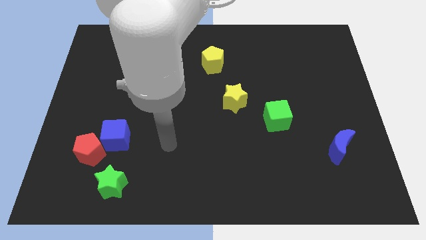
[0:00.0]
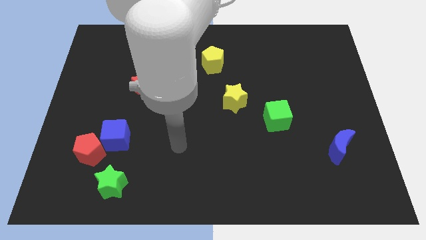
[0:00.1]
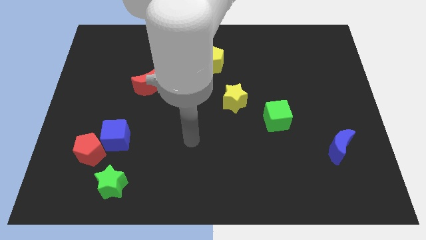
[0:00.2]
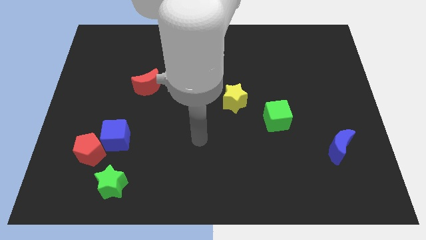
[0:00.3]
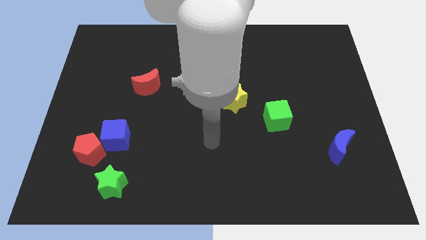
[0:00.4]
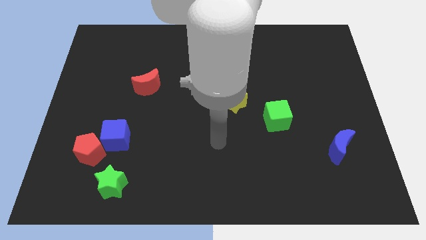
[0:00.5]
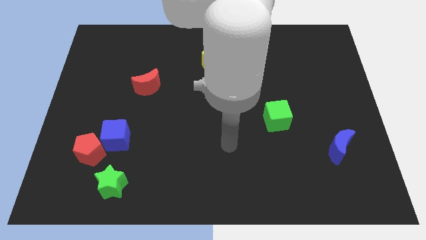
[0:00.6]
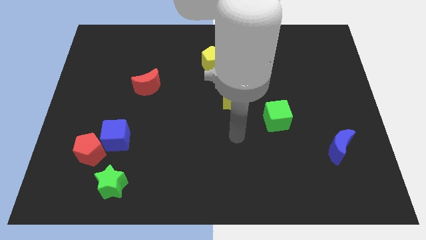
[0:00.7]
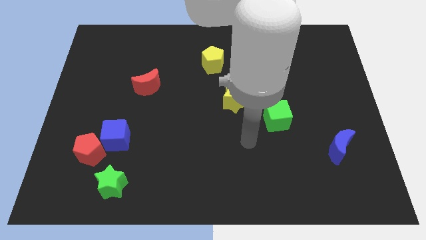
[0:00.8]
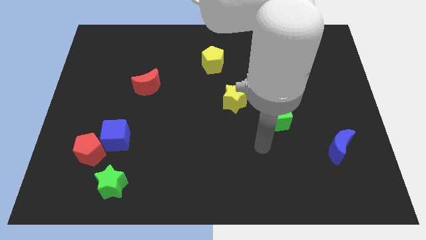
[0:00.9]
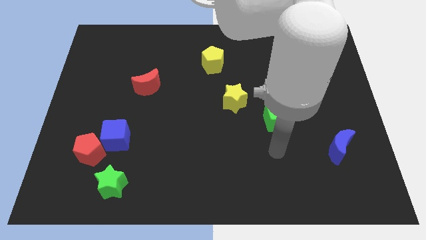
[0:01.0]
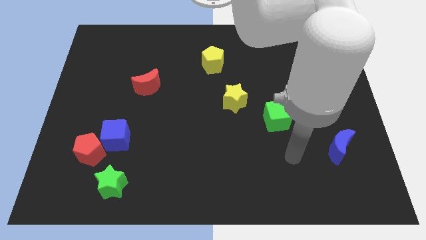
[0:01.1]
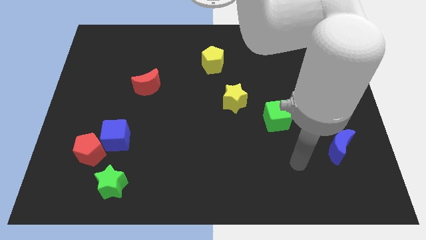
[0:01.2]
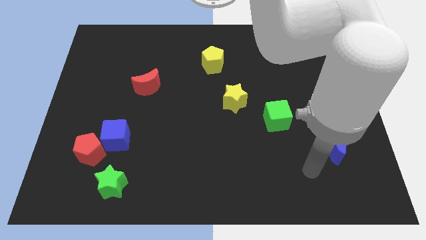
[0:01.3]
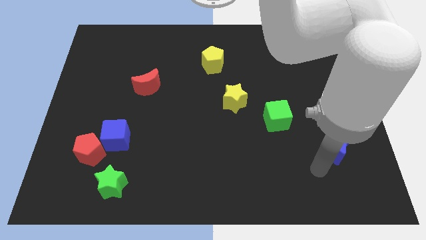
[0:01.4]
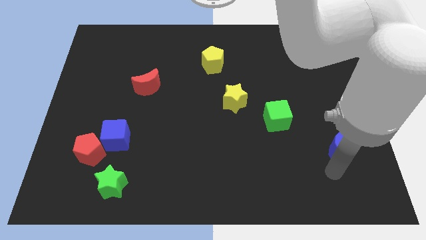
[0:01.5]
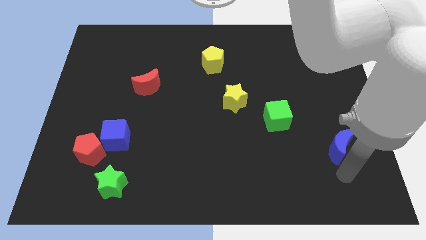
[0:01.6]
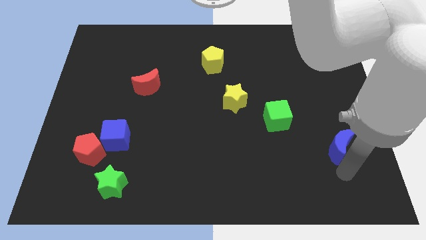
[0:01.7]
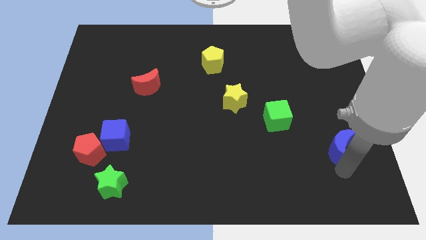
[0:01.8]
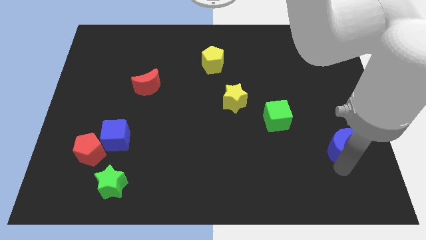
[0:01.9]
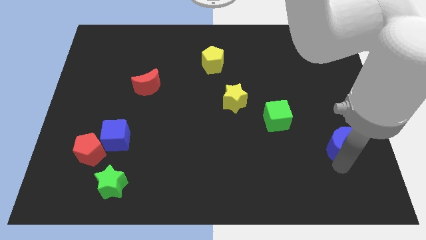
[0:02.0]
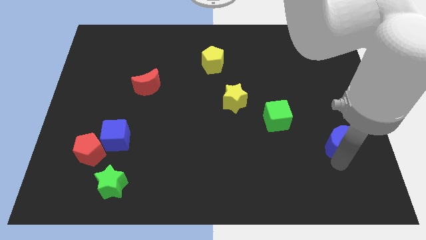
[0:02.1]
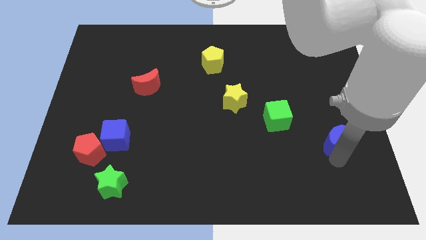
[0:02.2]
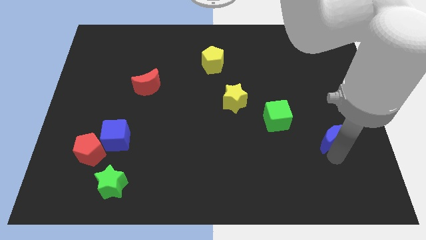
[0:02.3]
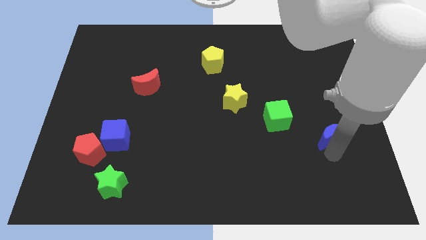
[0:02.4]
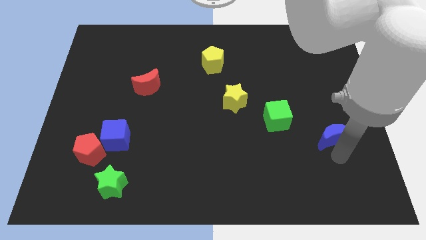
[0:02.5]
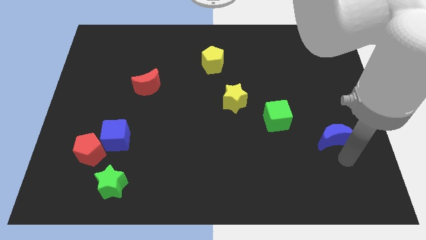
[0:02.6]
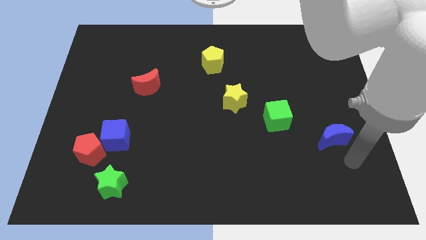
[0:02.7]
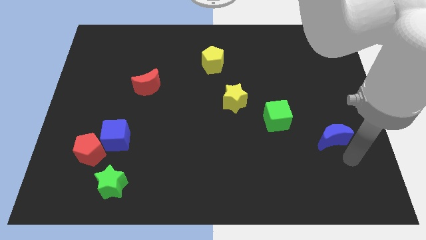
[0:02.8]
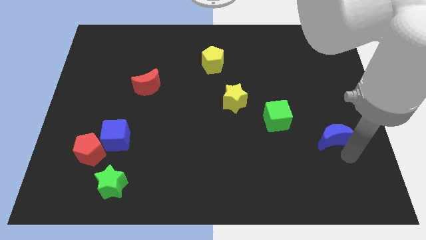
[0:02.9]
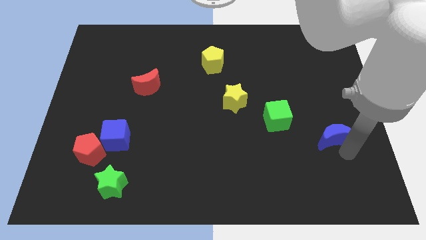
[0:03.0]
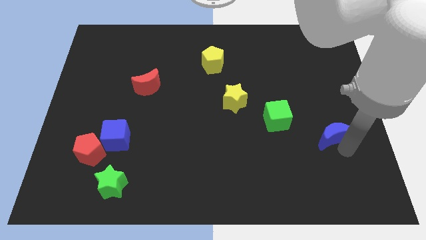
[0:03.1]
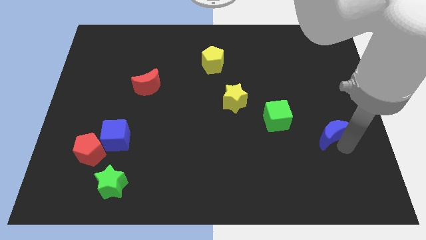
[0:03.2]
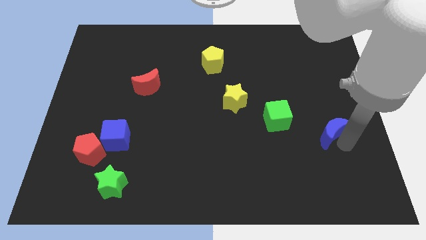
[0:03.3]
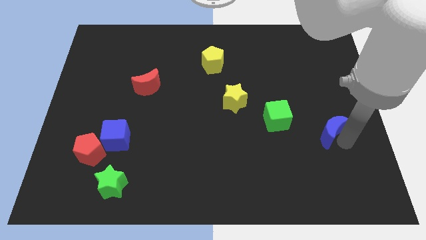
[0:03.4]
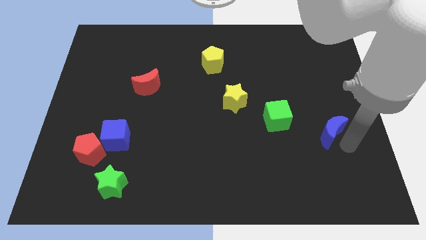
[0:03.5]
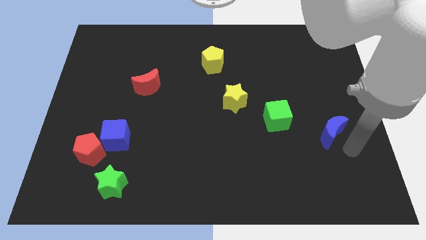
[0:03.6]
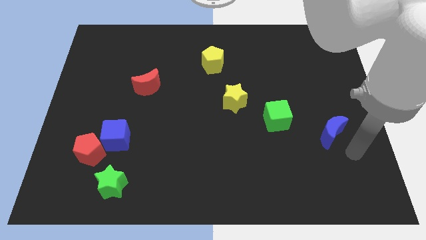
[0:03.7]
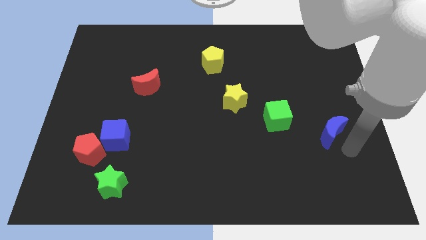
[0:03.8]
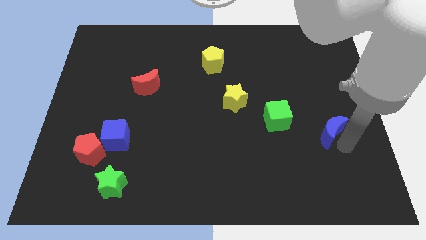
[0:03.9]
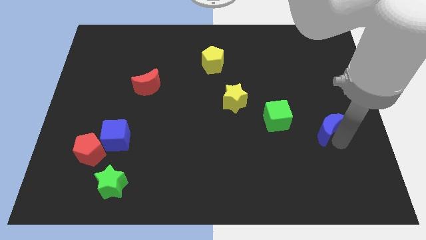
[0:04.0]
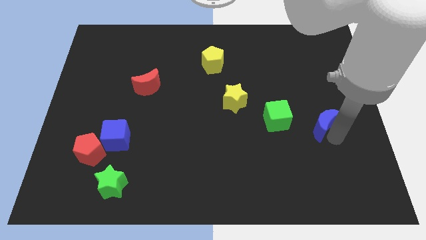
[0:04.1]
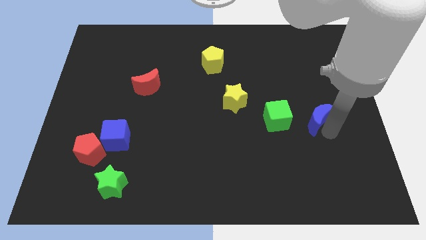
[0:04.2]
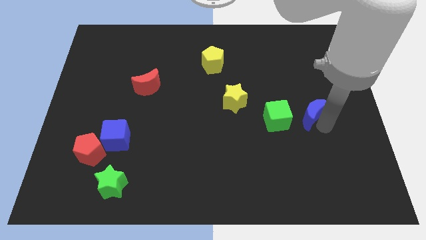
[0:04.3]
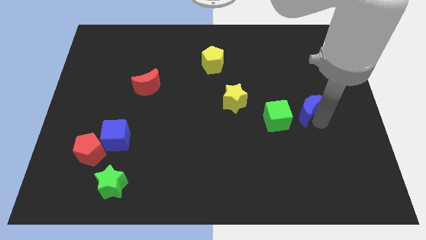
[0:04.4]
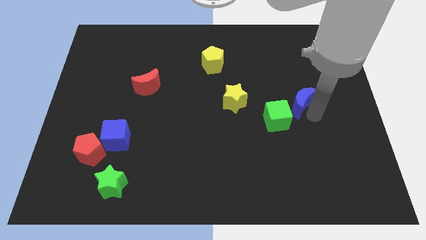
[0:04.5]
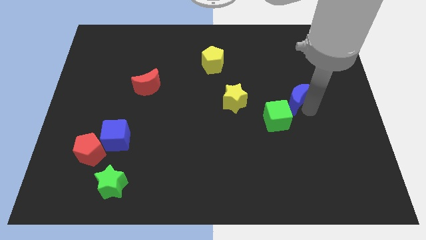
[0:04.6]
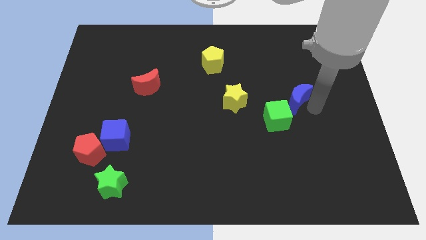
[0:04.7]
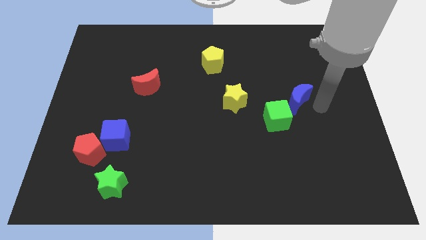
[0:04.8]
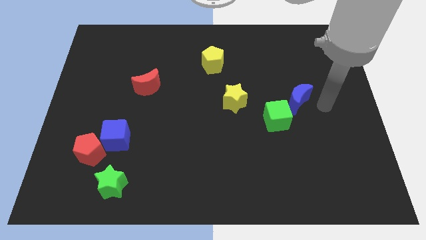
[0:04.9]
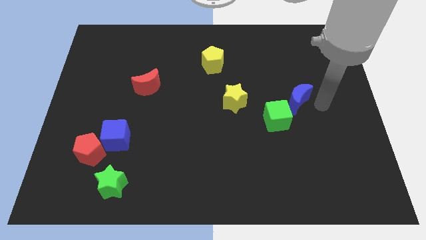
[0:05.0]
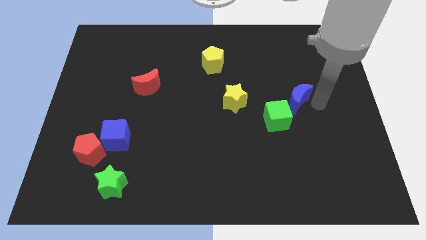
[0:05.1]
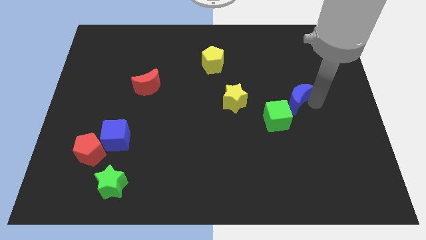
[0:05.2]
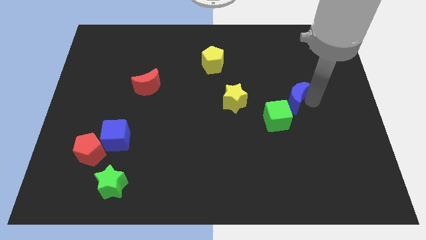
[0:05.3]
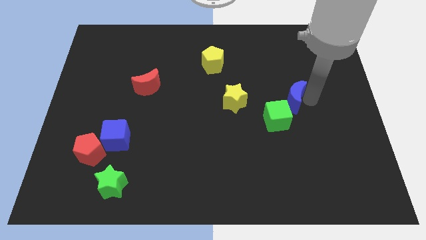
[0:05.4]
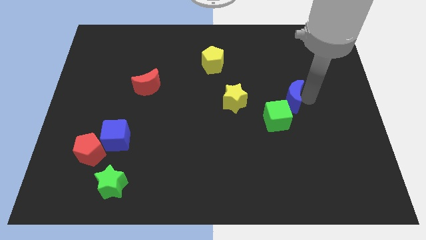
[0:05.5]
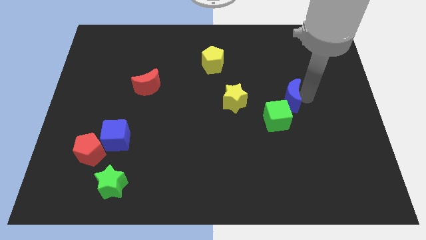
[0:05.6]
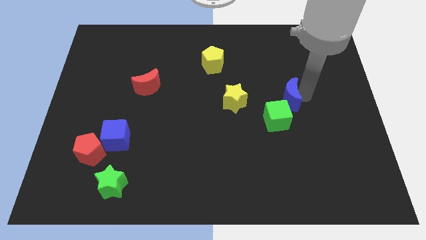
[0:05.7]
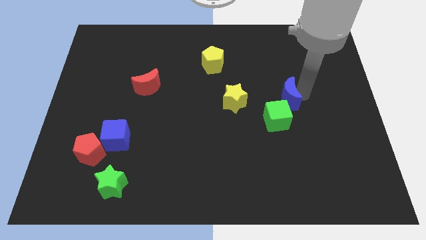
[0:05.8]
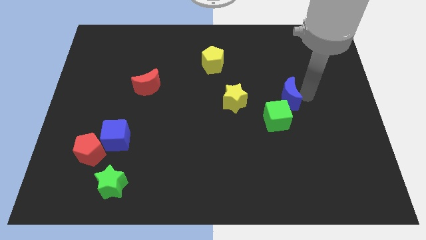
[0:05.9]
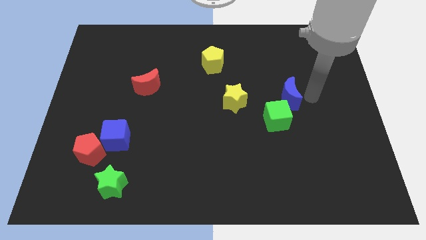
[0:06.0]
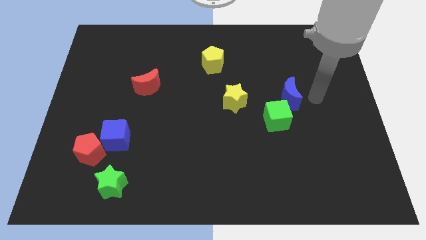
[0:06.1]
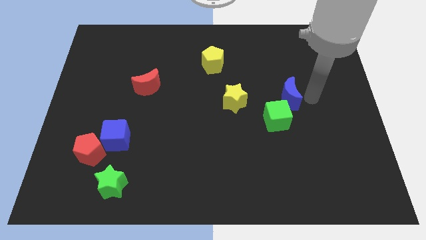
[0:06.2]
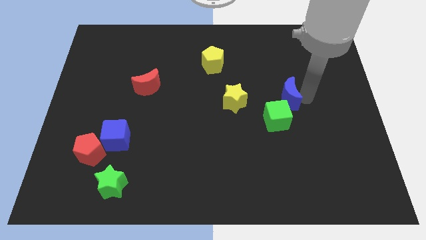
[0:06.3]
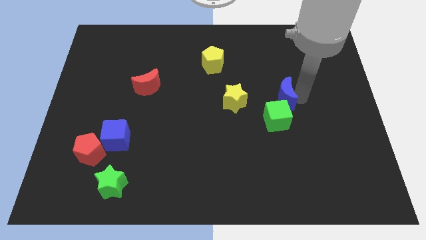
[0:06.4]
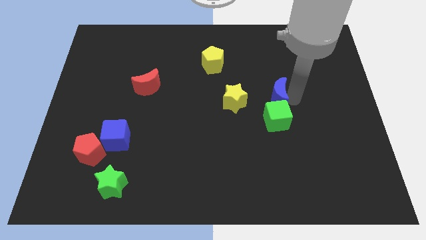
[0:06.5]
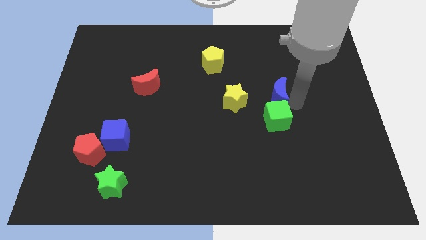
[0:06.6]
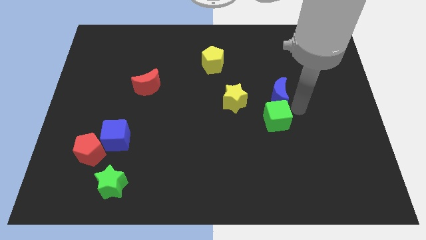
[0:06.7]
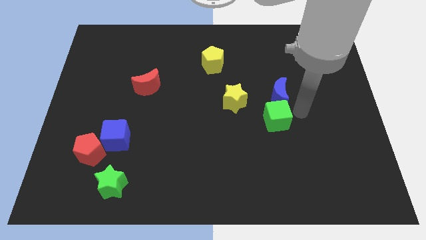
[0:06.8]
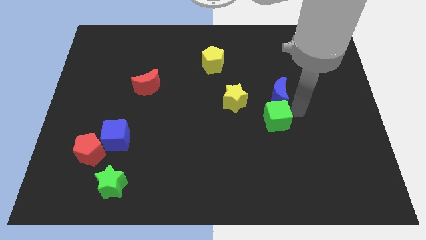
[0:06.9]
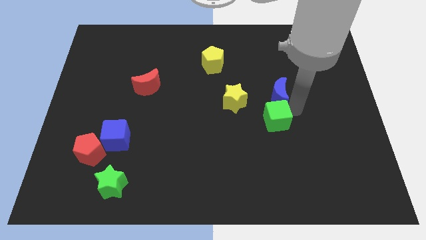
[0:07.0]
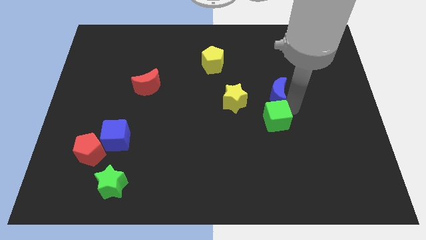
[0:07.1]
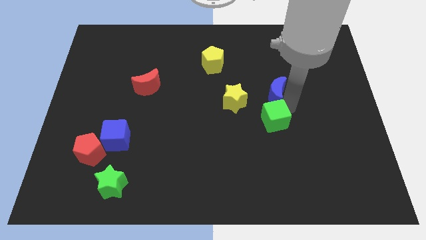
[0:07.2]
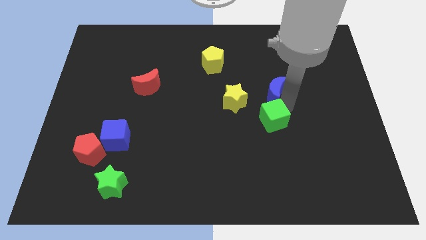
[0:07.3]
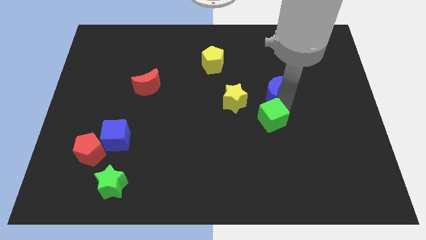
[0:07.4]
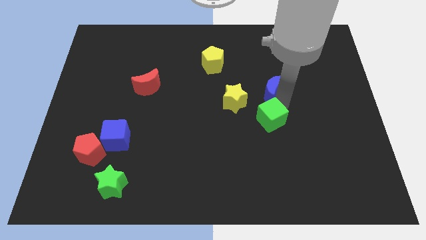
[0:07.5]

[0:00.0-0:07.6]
push the blue moon upwards and to the left diagonally

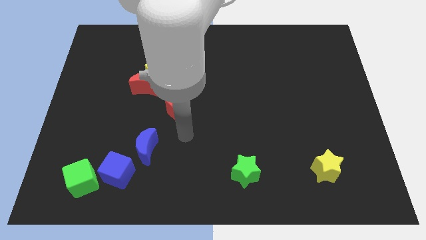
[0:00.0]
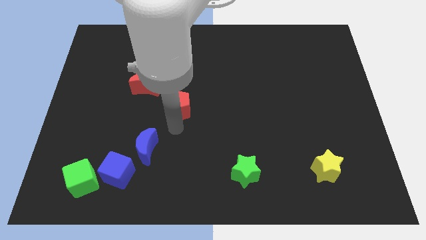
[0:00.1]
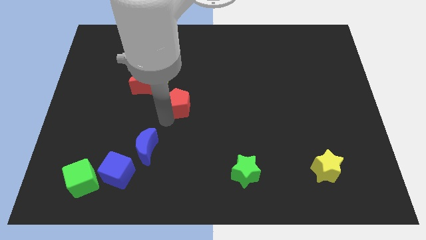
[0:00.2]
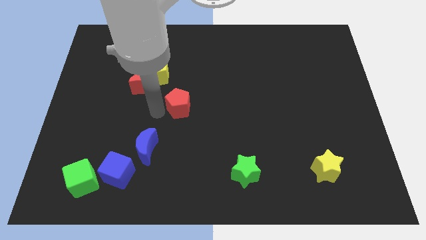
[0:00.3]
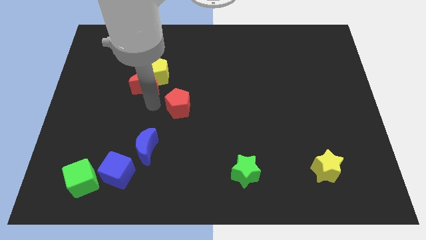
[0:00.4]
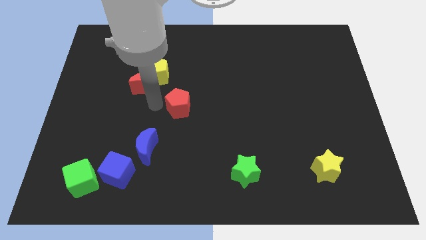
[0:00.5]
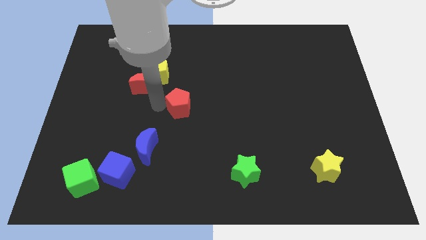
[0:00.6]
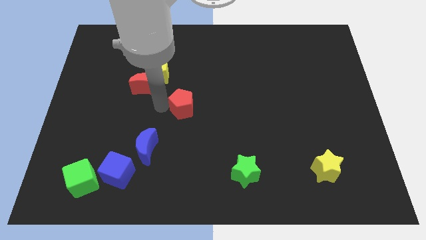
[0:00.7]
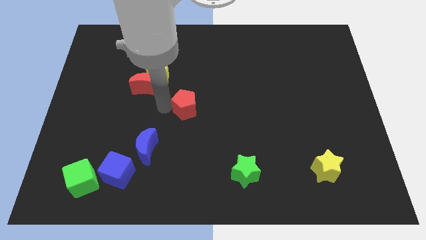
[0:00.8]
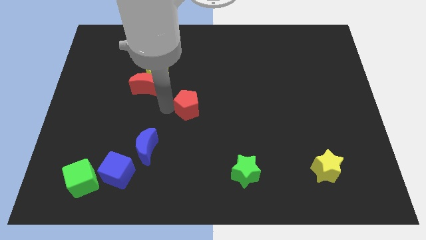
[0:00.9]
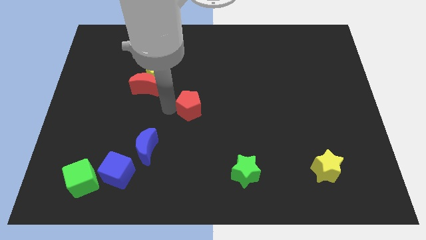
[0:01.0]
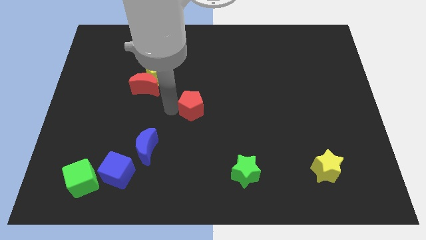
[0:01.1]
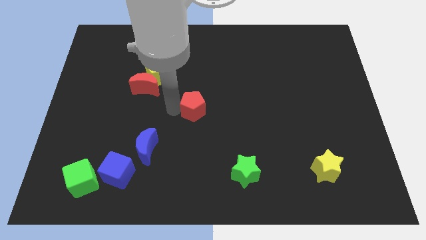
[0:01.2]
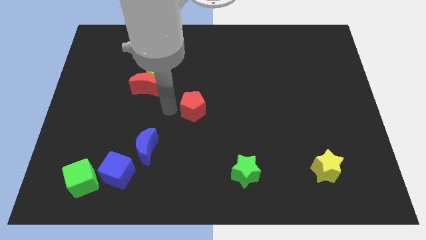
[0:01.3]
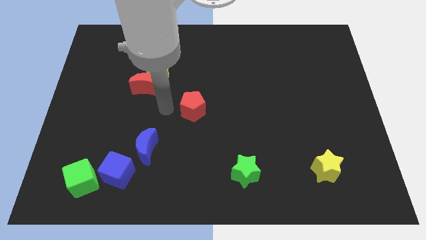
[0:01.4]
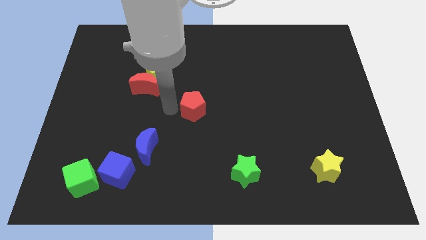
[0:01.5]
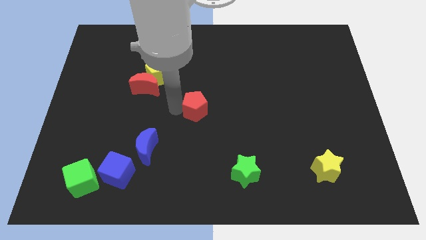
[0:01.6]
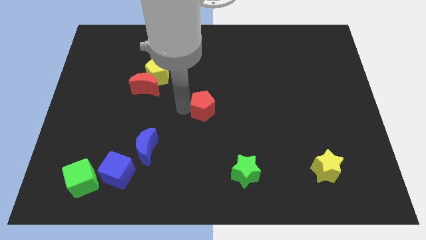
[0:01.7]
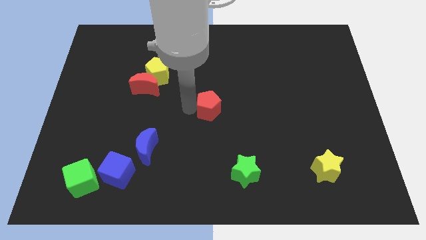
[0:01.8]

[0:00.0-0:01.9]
slide the red pentagon somewhat to the right
